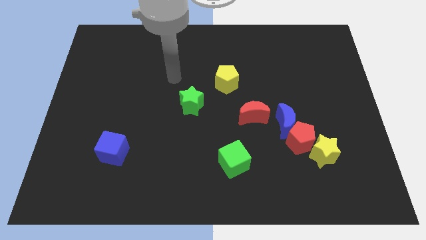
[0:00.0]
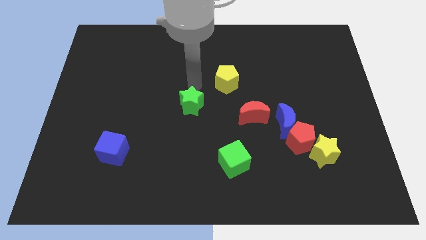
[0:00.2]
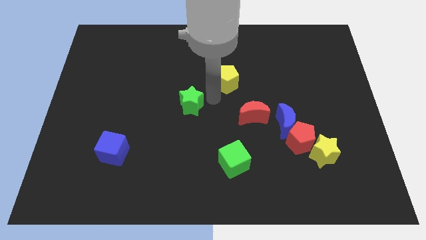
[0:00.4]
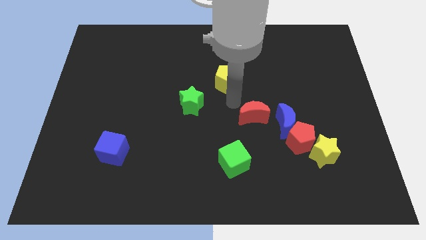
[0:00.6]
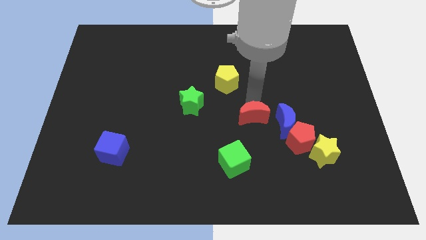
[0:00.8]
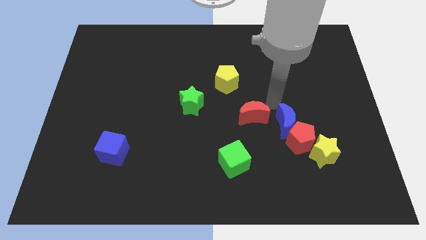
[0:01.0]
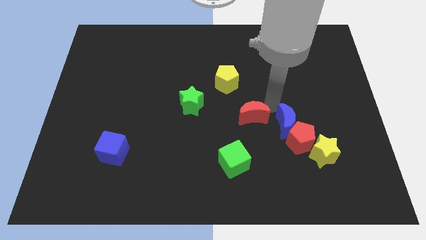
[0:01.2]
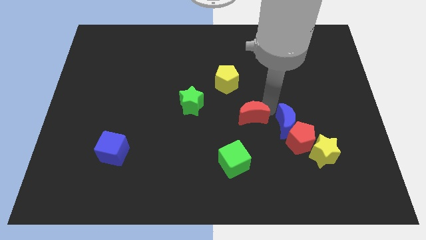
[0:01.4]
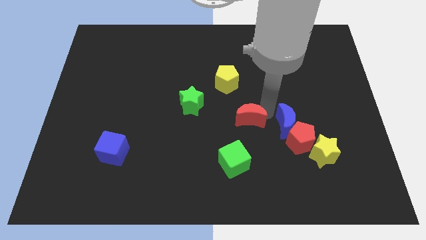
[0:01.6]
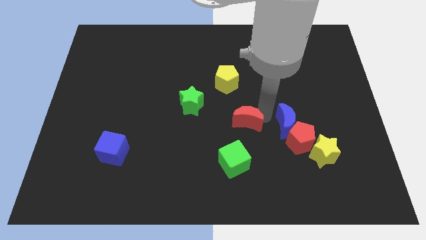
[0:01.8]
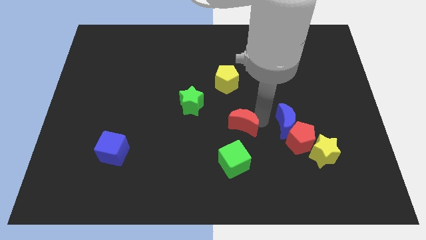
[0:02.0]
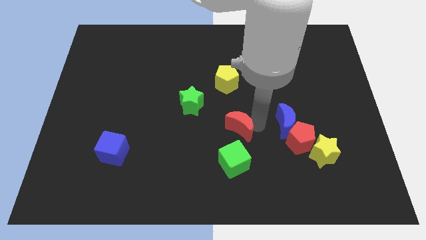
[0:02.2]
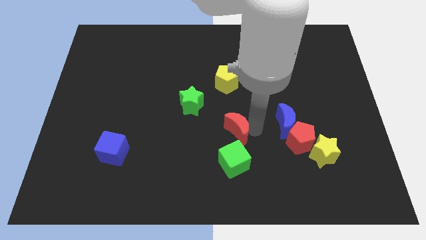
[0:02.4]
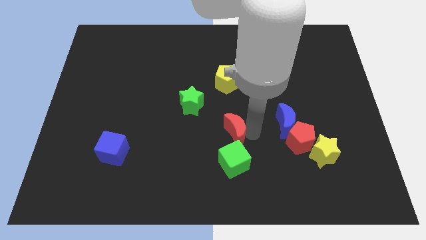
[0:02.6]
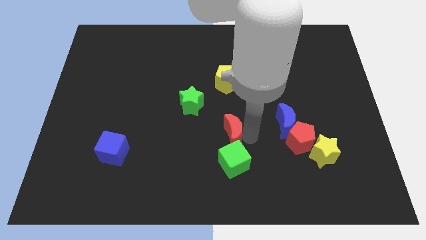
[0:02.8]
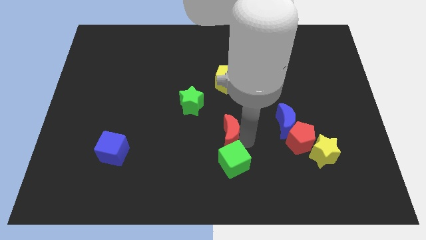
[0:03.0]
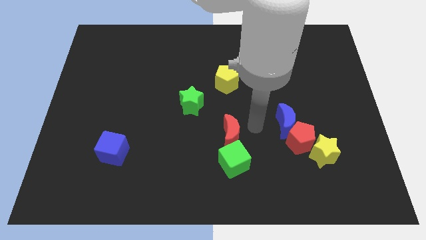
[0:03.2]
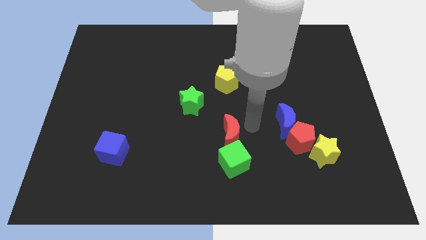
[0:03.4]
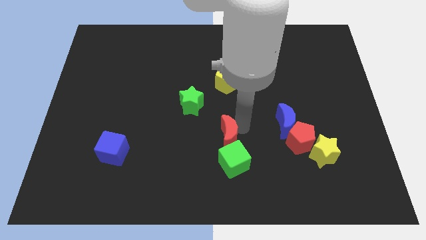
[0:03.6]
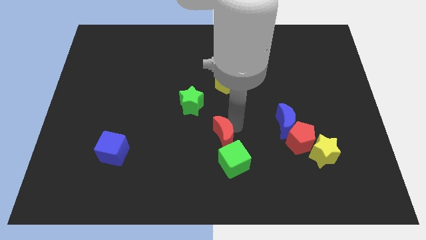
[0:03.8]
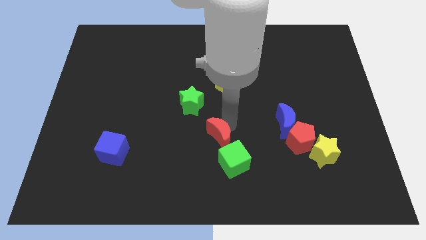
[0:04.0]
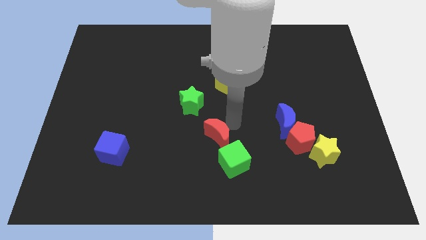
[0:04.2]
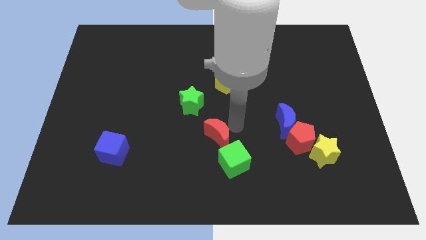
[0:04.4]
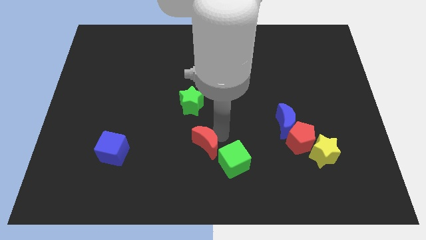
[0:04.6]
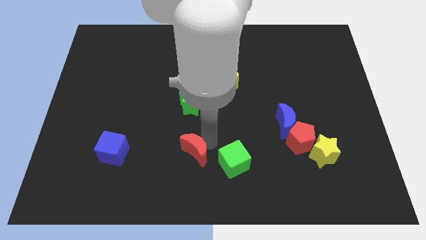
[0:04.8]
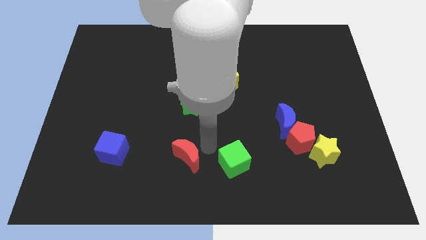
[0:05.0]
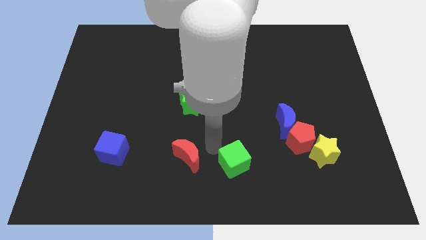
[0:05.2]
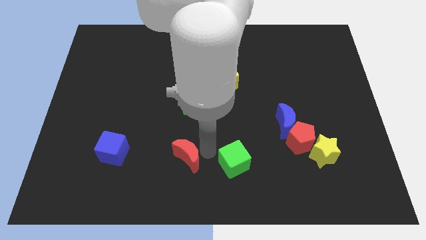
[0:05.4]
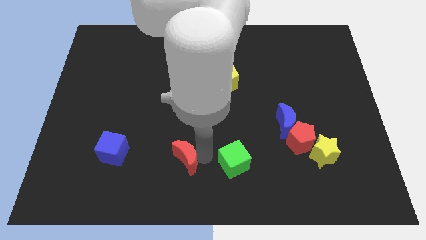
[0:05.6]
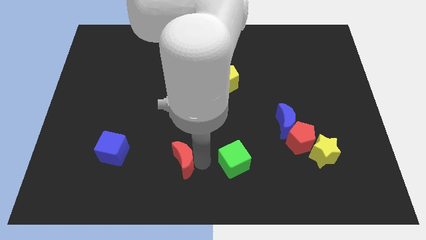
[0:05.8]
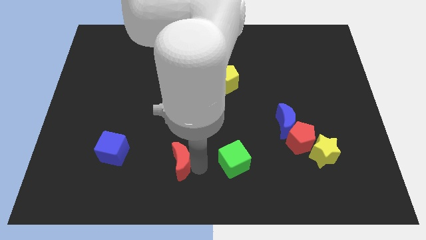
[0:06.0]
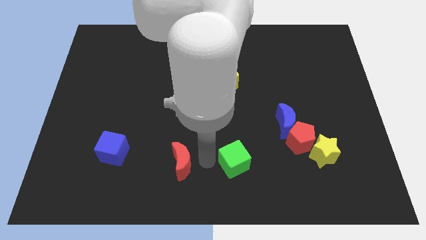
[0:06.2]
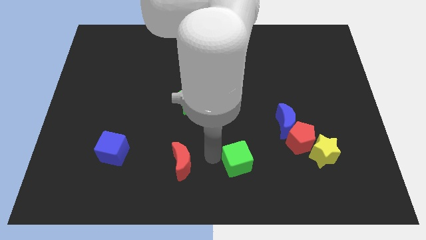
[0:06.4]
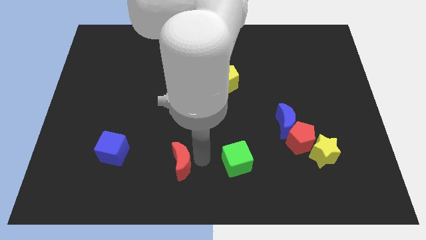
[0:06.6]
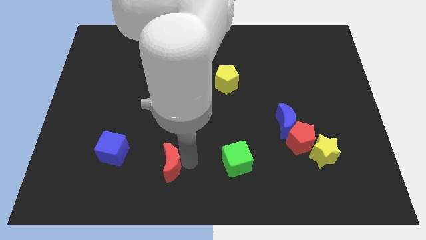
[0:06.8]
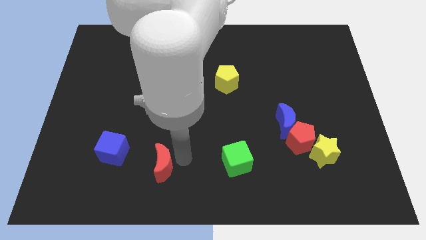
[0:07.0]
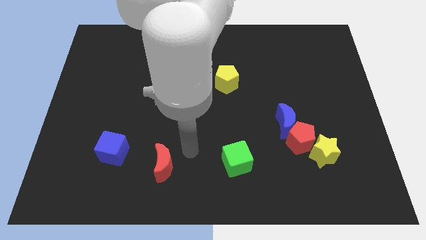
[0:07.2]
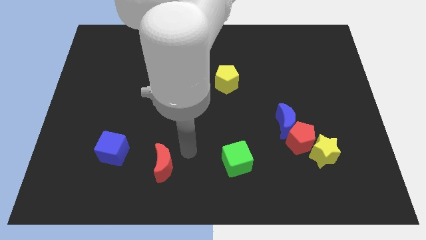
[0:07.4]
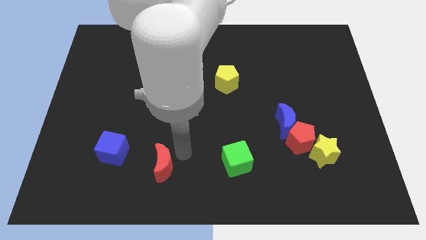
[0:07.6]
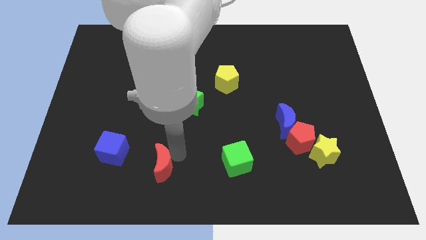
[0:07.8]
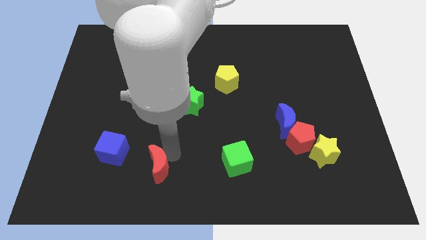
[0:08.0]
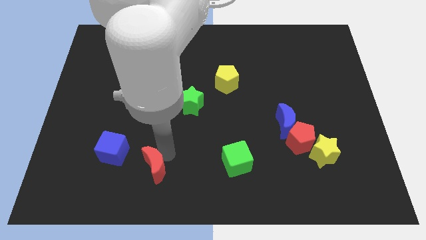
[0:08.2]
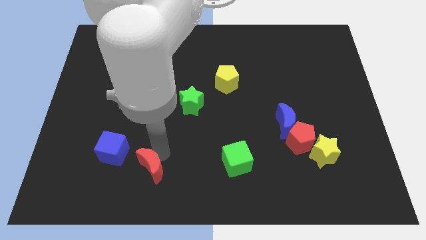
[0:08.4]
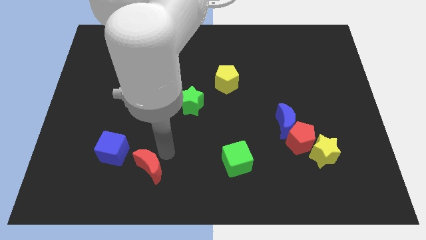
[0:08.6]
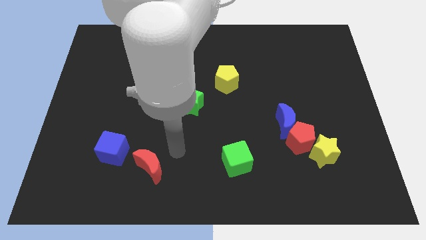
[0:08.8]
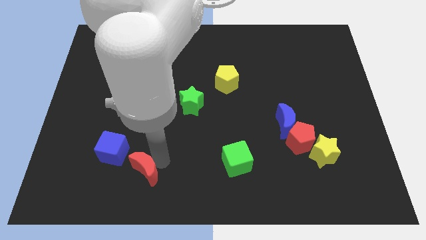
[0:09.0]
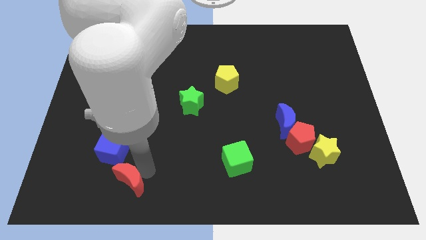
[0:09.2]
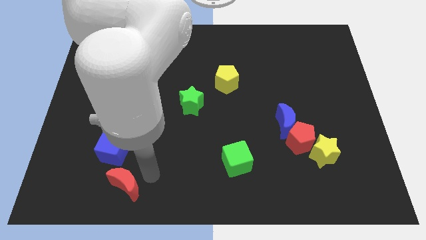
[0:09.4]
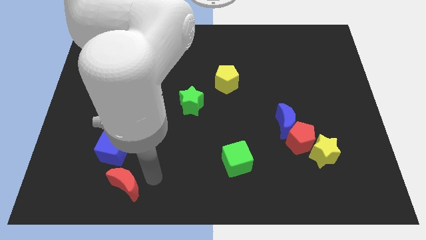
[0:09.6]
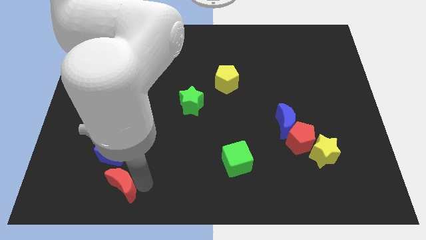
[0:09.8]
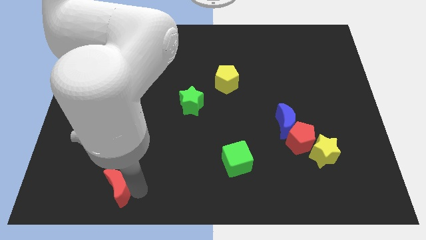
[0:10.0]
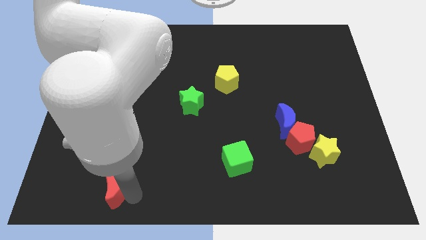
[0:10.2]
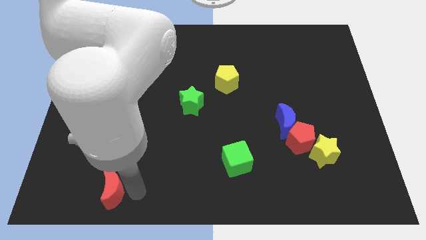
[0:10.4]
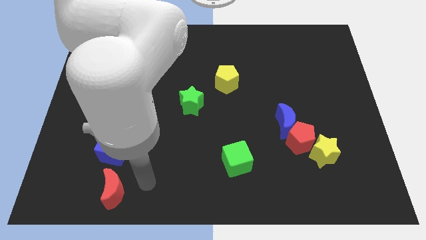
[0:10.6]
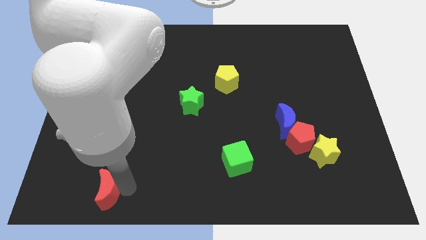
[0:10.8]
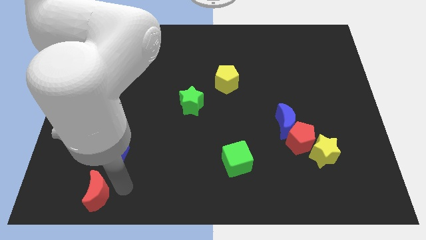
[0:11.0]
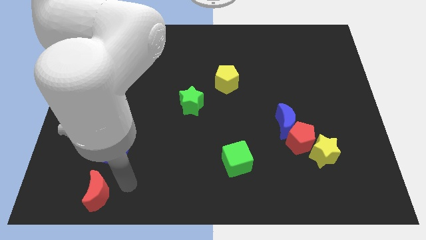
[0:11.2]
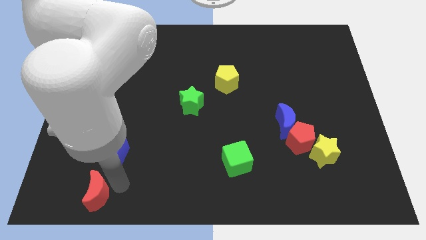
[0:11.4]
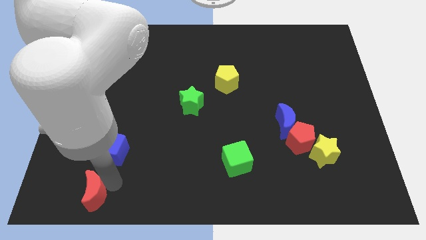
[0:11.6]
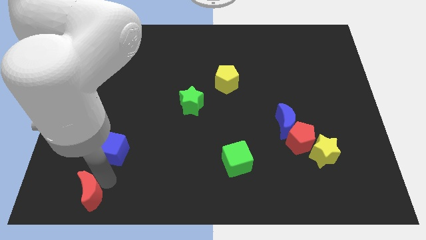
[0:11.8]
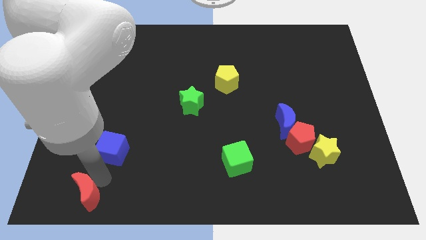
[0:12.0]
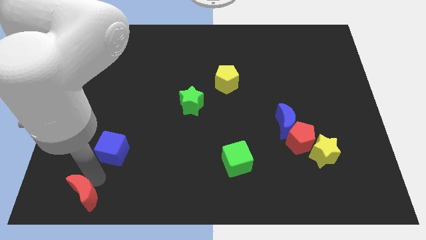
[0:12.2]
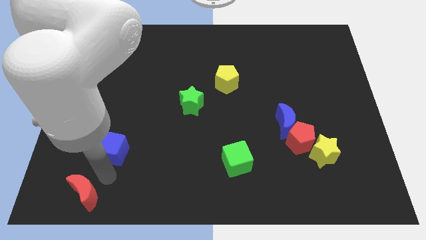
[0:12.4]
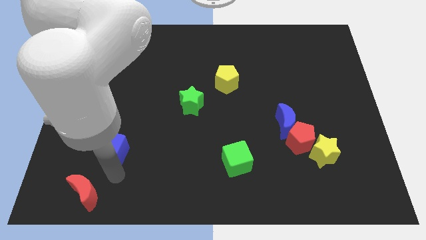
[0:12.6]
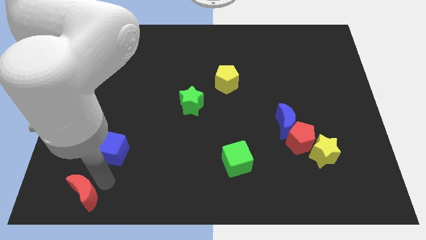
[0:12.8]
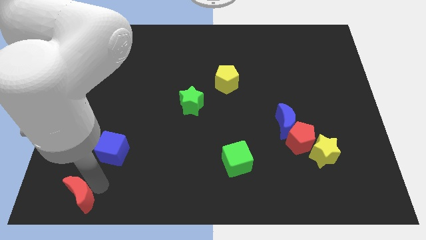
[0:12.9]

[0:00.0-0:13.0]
put the red moon to the bottom left
